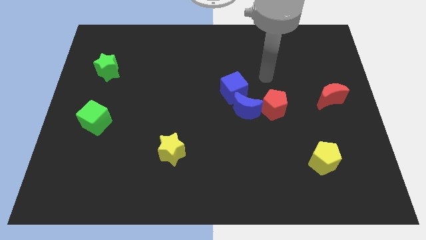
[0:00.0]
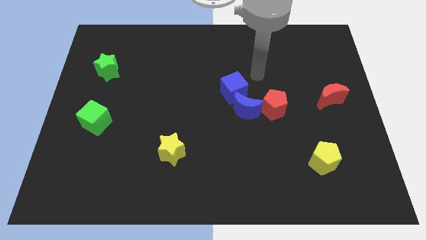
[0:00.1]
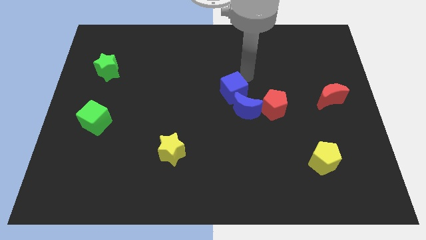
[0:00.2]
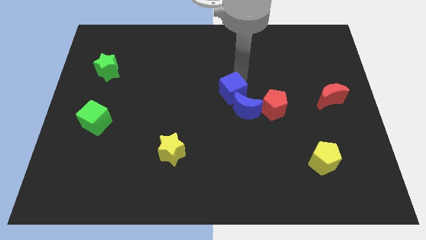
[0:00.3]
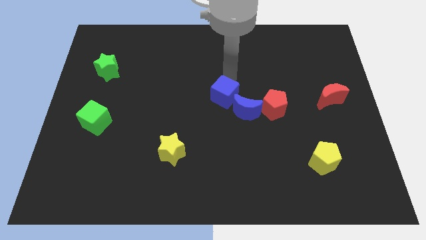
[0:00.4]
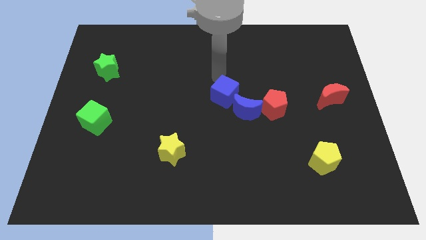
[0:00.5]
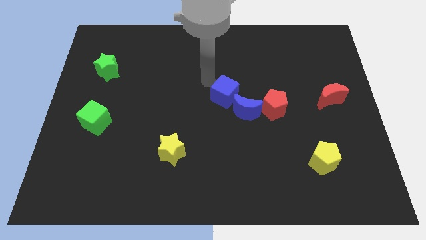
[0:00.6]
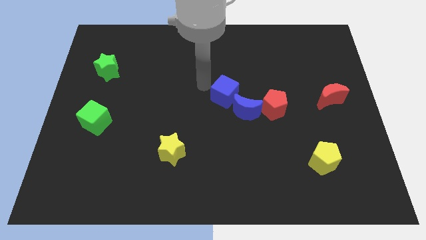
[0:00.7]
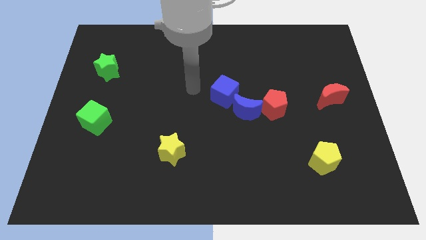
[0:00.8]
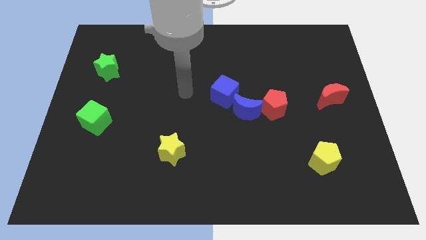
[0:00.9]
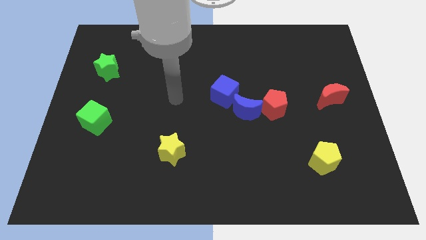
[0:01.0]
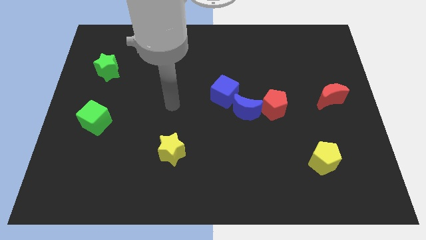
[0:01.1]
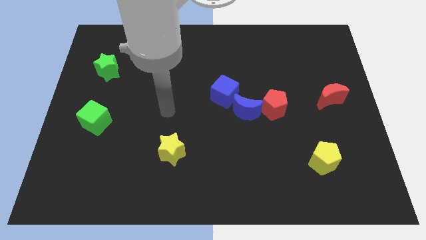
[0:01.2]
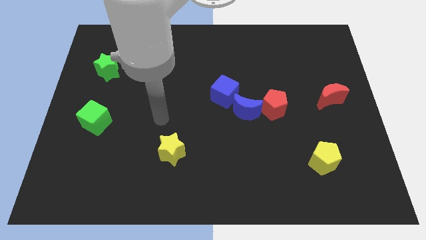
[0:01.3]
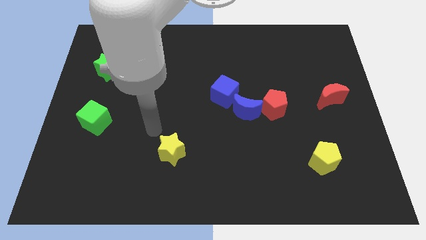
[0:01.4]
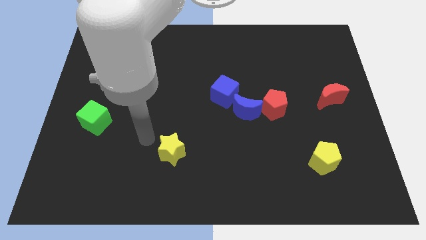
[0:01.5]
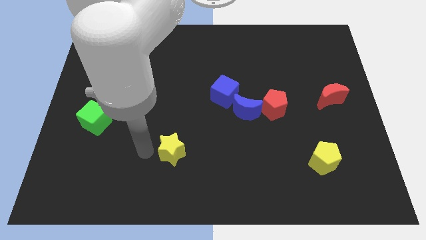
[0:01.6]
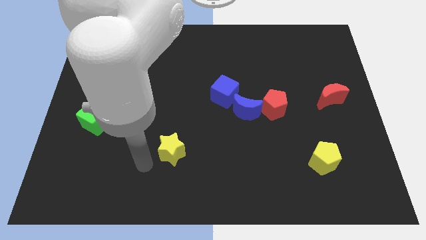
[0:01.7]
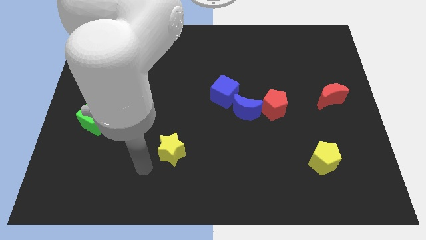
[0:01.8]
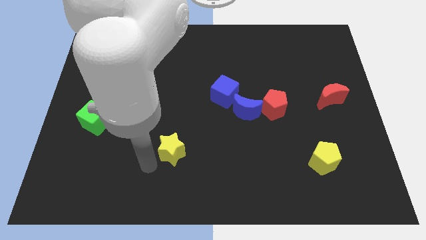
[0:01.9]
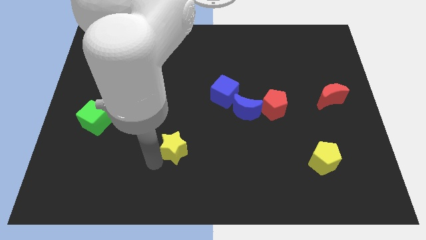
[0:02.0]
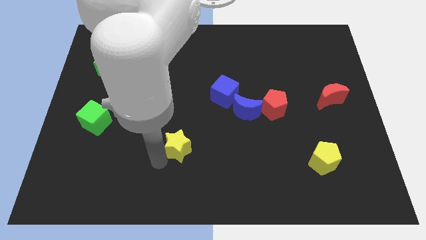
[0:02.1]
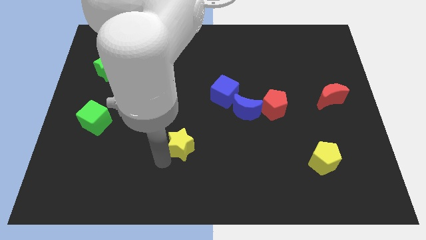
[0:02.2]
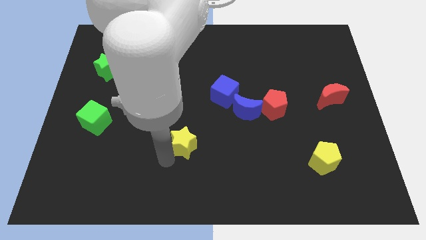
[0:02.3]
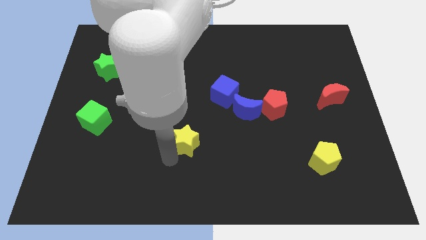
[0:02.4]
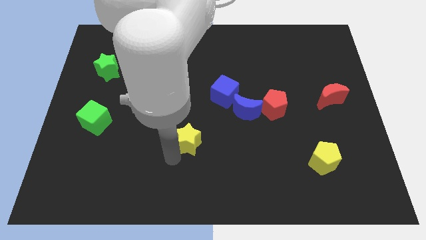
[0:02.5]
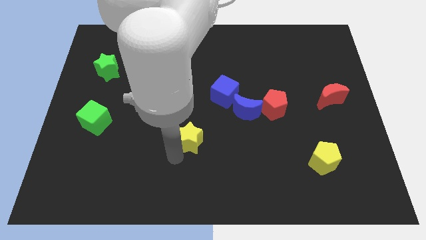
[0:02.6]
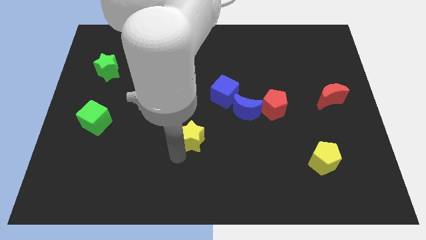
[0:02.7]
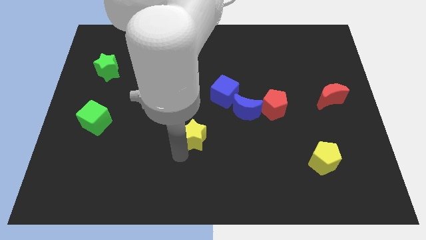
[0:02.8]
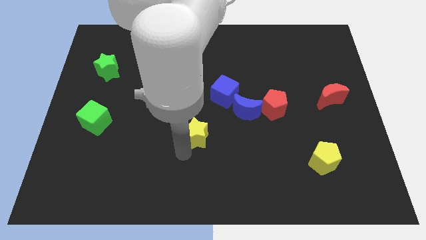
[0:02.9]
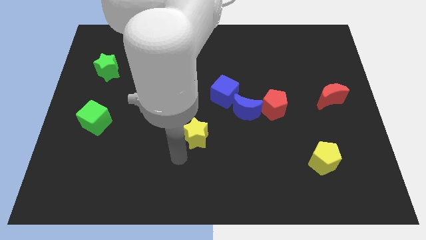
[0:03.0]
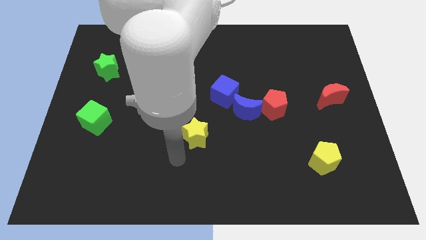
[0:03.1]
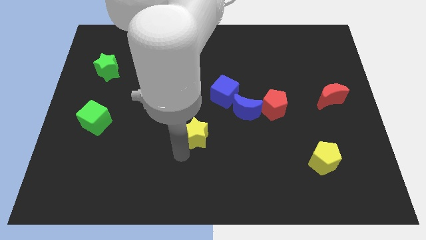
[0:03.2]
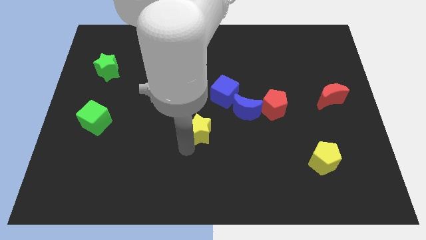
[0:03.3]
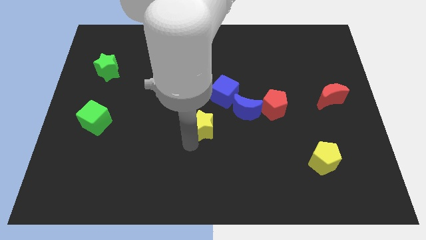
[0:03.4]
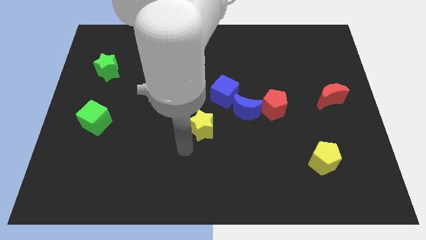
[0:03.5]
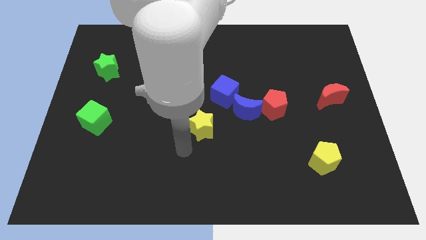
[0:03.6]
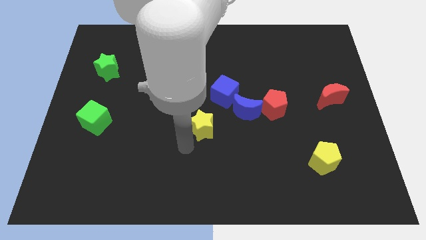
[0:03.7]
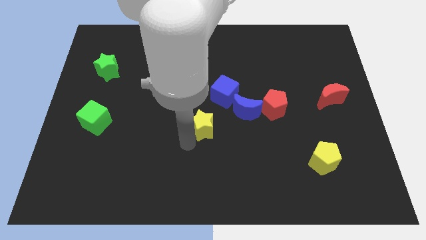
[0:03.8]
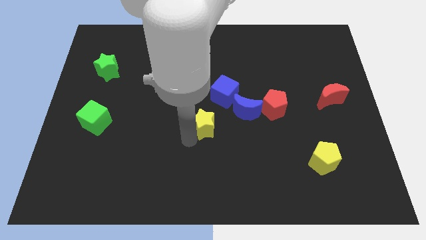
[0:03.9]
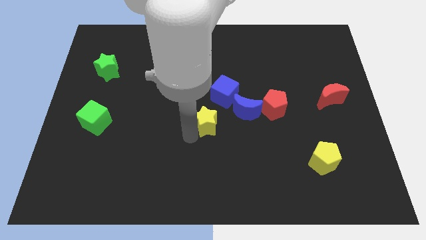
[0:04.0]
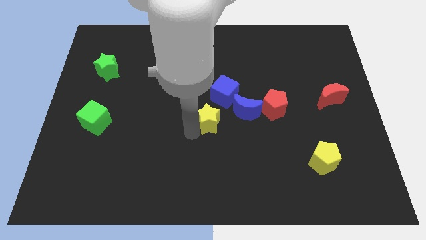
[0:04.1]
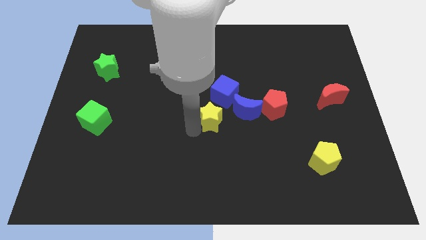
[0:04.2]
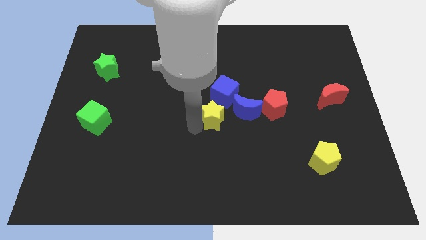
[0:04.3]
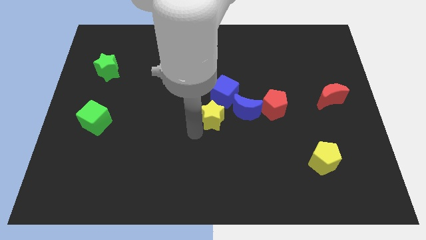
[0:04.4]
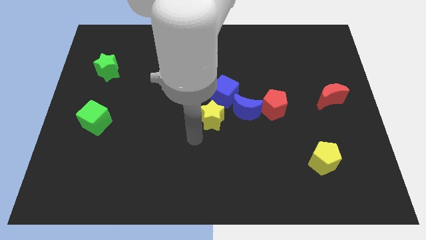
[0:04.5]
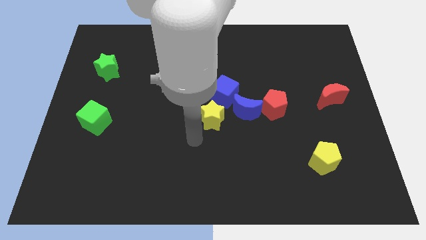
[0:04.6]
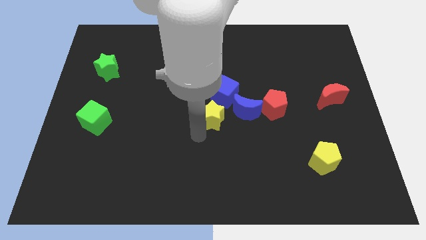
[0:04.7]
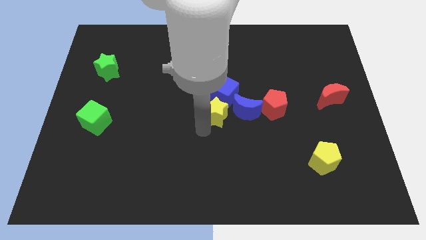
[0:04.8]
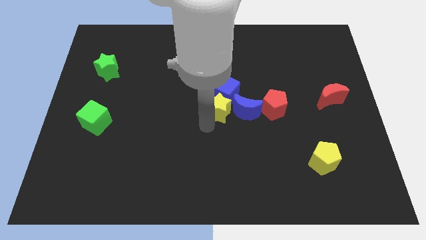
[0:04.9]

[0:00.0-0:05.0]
put the yellow star to the blue cube

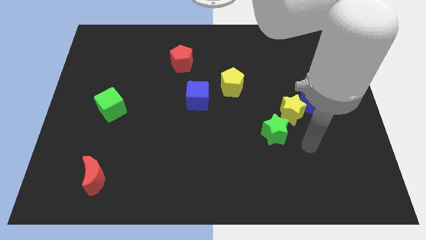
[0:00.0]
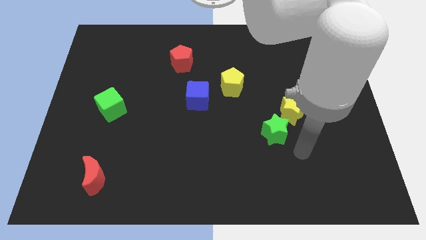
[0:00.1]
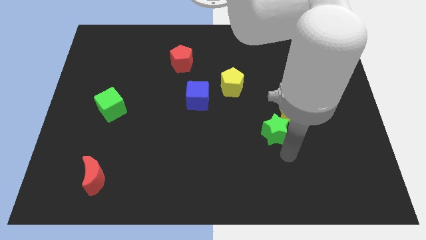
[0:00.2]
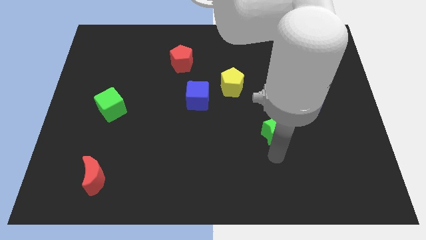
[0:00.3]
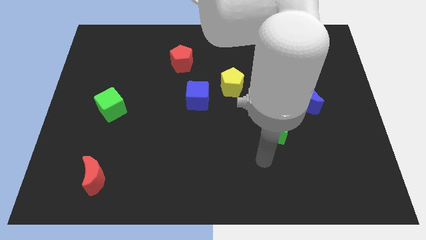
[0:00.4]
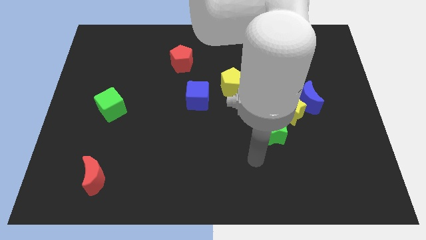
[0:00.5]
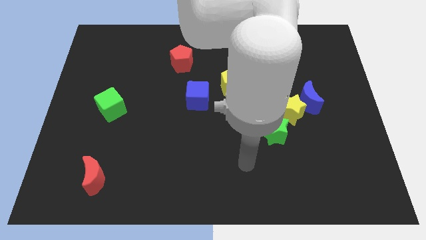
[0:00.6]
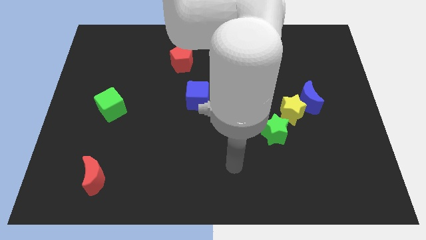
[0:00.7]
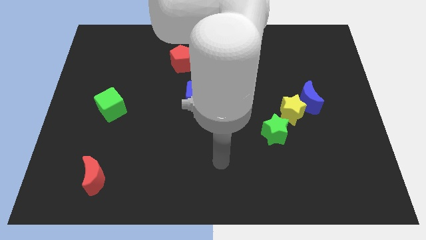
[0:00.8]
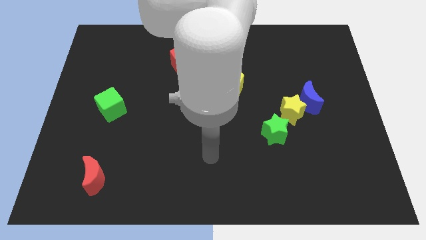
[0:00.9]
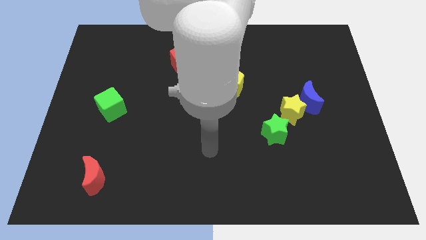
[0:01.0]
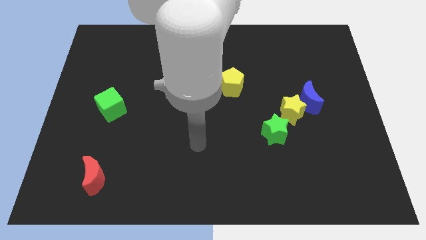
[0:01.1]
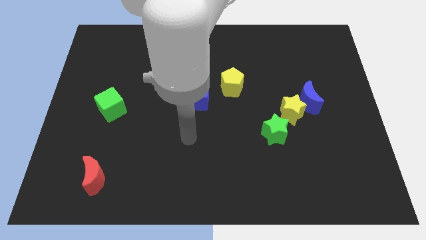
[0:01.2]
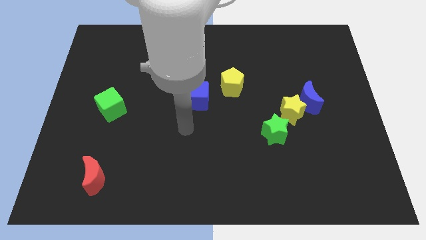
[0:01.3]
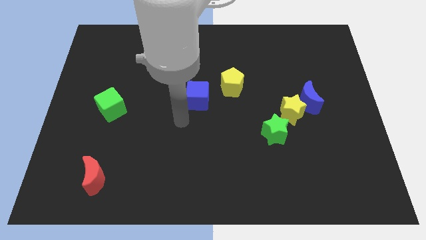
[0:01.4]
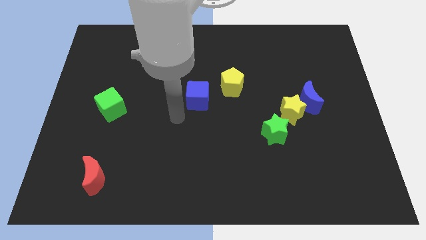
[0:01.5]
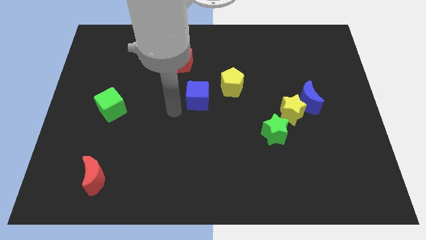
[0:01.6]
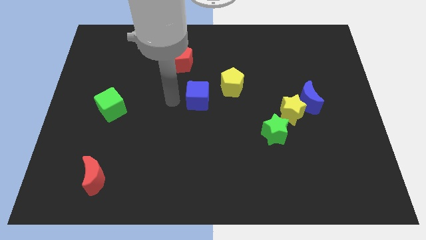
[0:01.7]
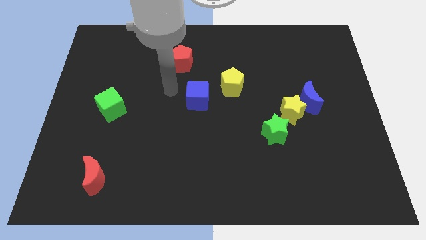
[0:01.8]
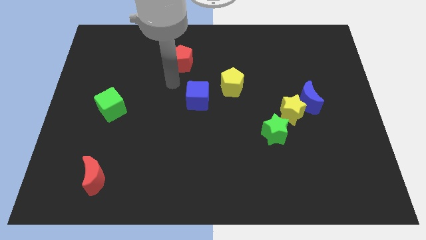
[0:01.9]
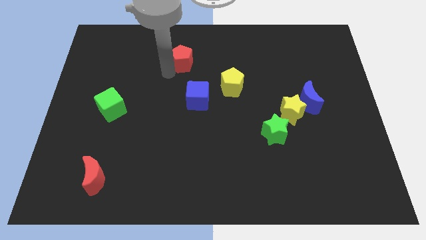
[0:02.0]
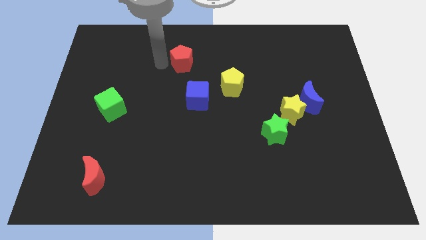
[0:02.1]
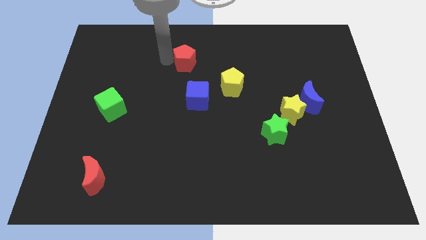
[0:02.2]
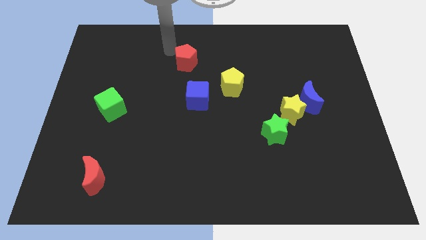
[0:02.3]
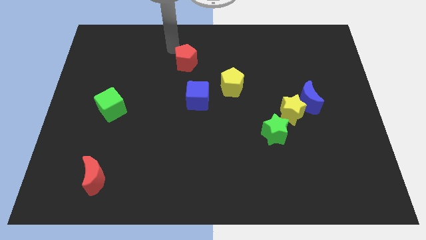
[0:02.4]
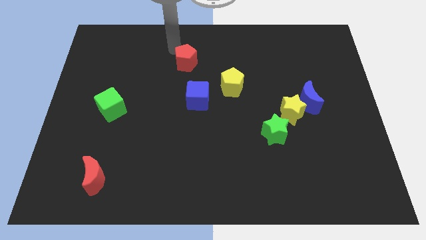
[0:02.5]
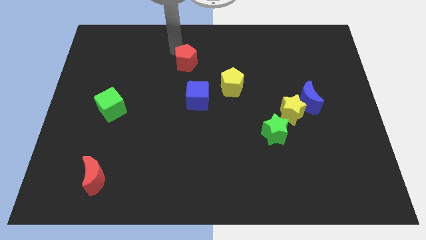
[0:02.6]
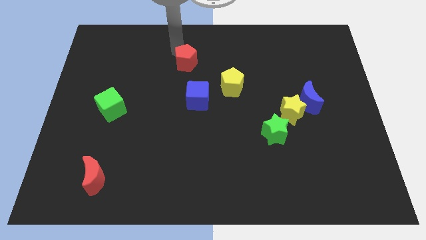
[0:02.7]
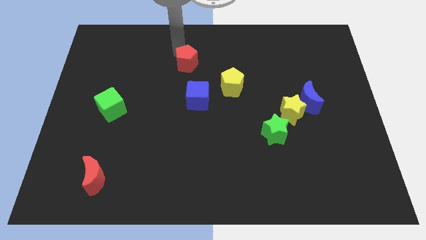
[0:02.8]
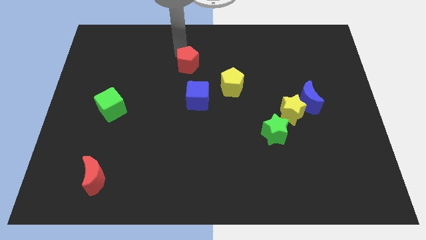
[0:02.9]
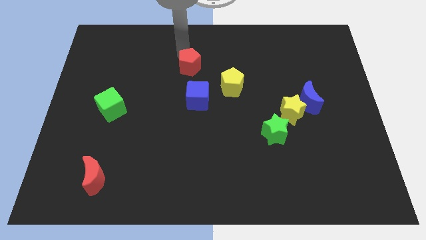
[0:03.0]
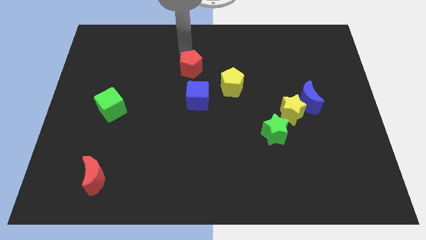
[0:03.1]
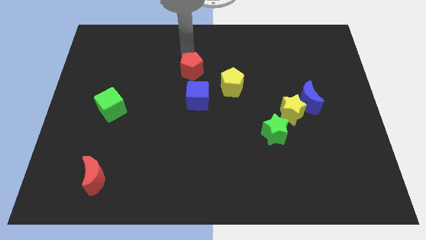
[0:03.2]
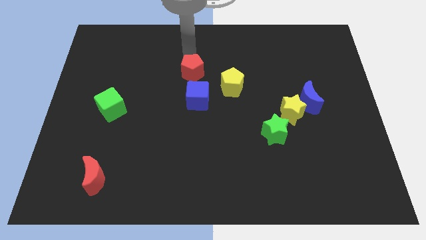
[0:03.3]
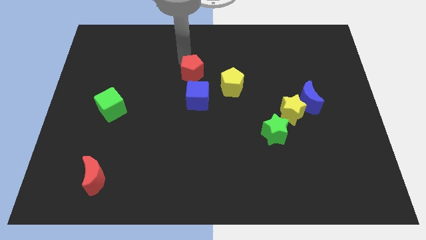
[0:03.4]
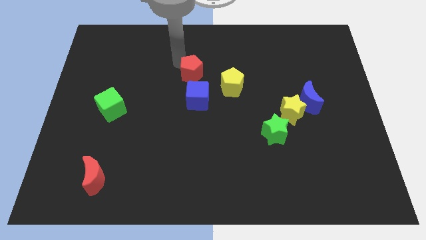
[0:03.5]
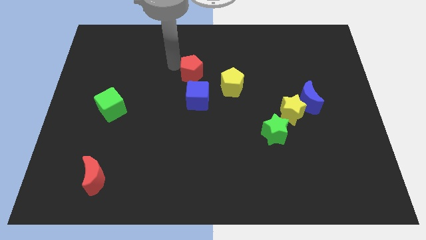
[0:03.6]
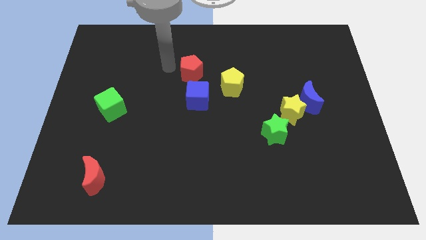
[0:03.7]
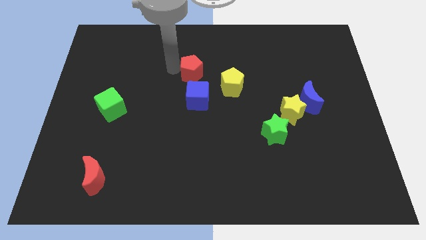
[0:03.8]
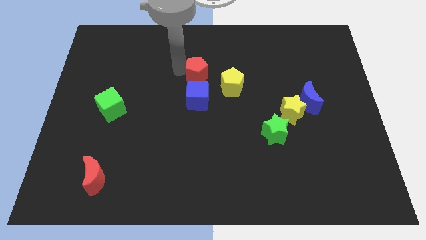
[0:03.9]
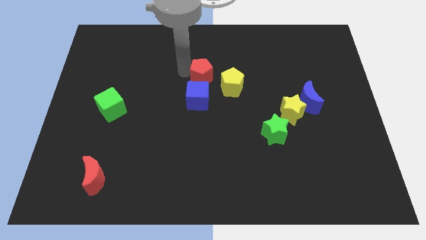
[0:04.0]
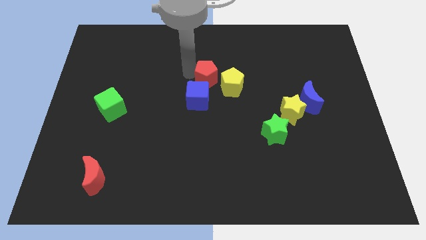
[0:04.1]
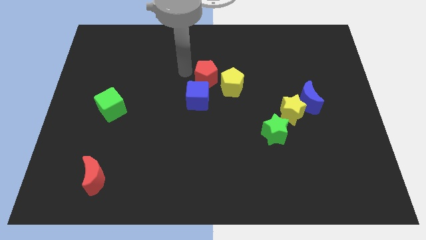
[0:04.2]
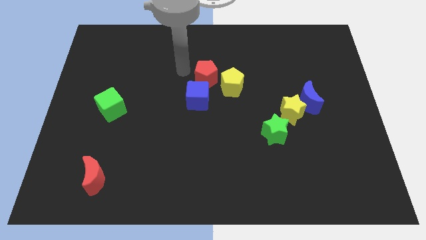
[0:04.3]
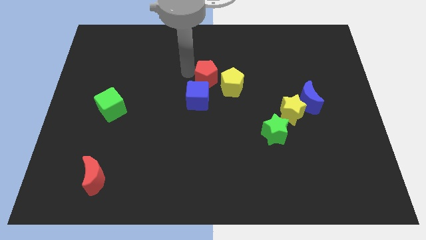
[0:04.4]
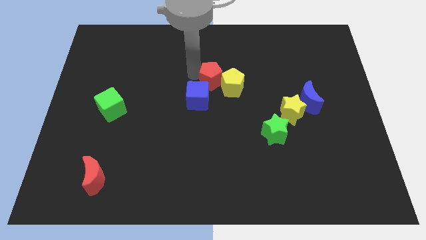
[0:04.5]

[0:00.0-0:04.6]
slide the red pentagon to the yellow pentagon
